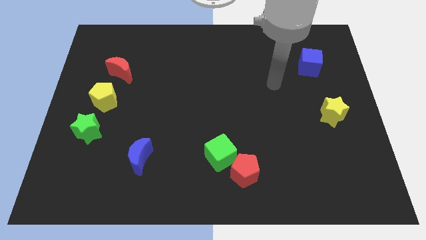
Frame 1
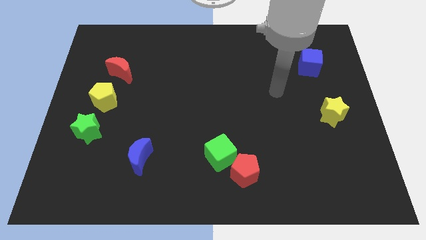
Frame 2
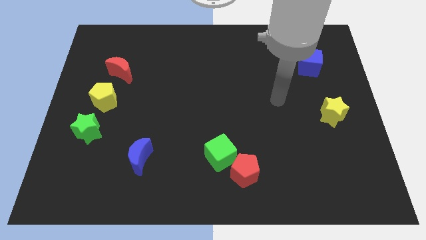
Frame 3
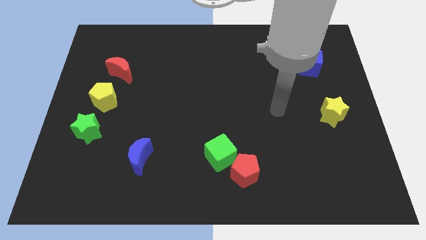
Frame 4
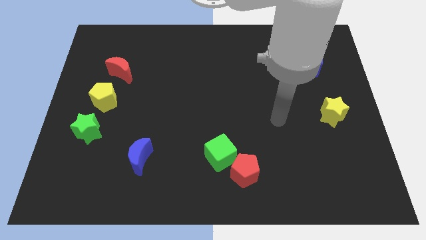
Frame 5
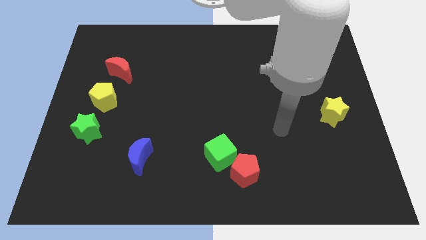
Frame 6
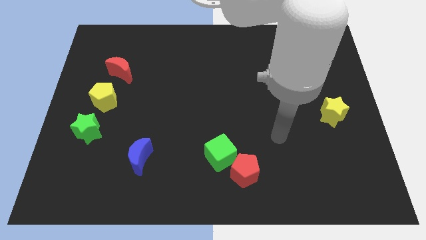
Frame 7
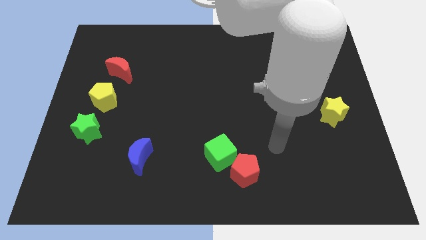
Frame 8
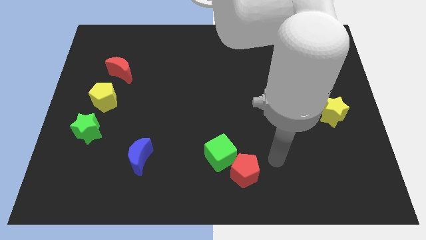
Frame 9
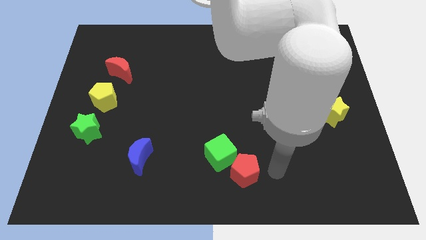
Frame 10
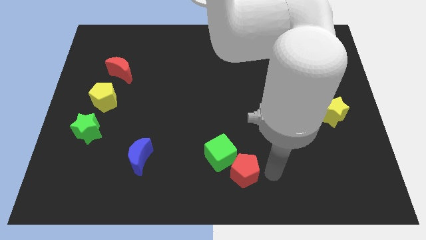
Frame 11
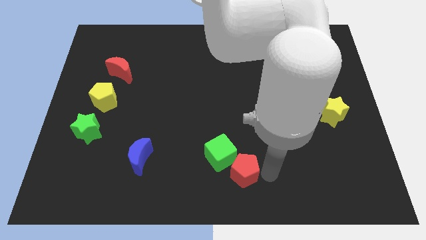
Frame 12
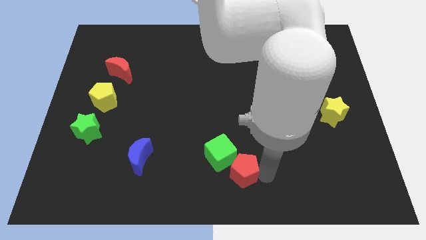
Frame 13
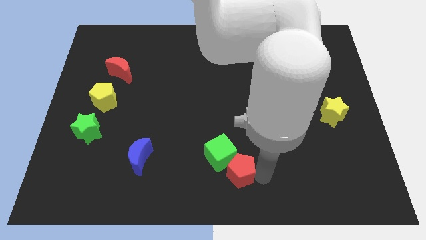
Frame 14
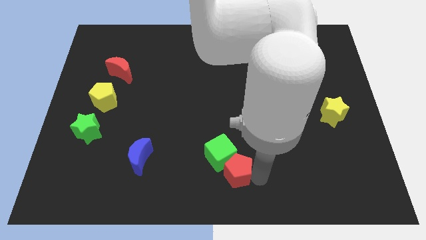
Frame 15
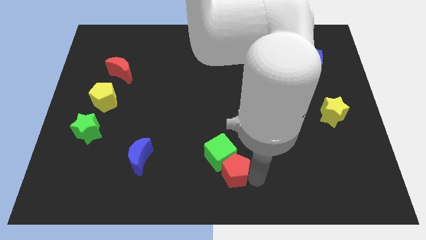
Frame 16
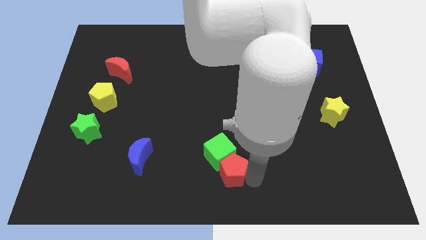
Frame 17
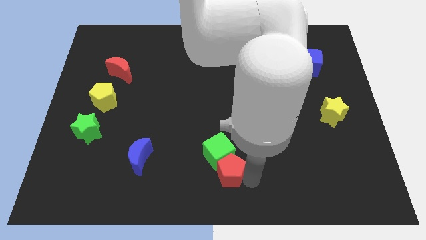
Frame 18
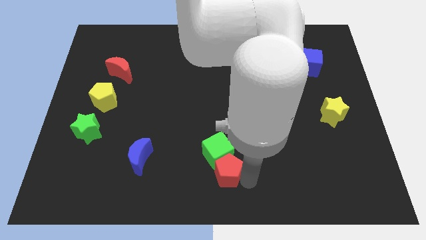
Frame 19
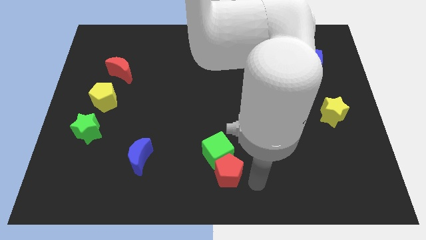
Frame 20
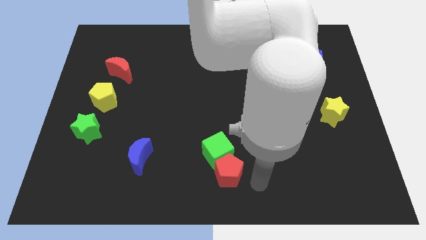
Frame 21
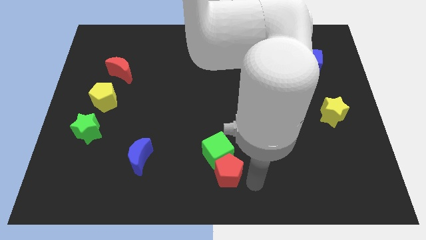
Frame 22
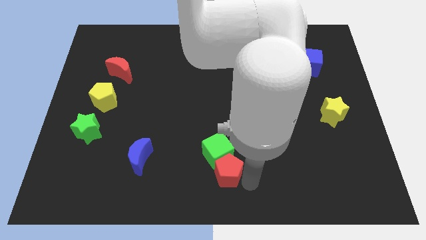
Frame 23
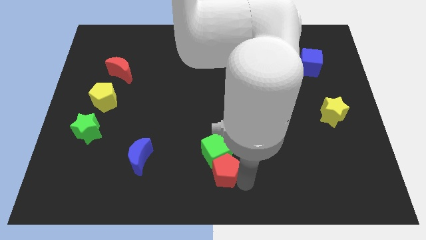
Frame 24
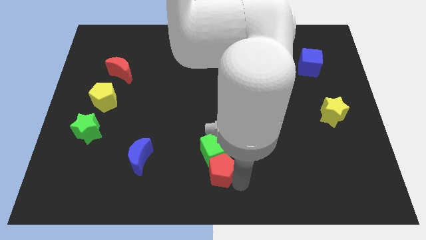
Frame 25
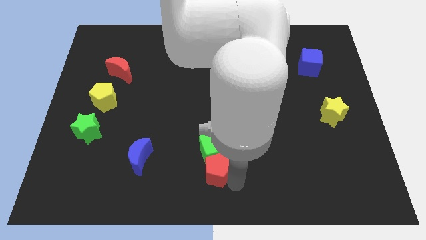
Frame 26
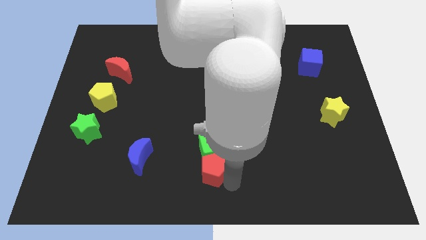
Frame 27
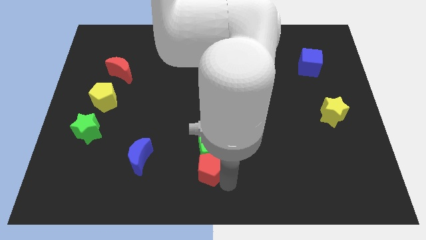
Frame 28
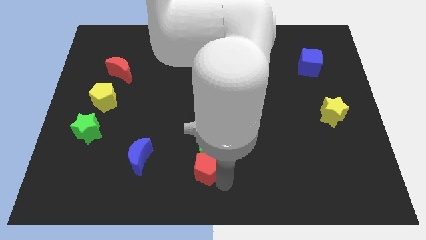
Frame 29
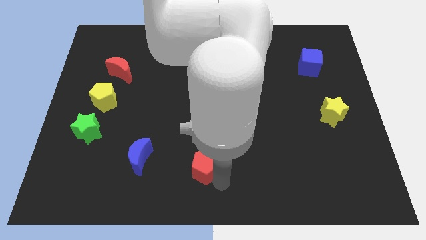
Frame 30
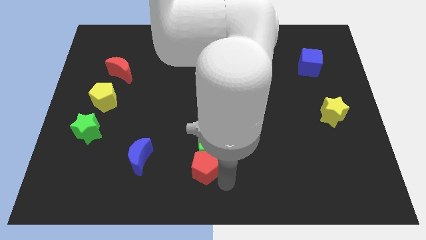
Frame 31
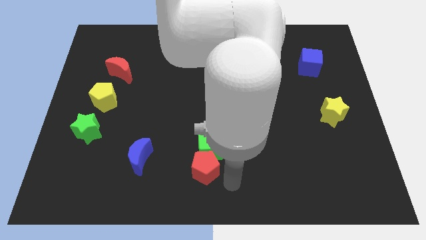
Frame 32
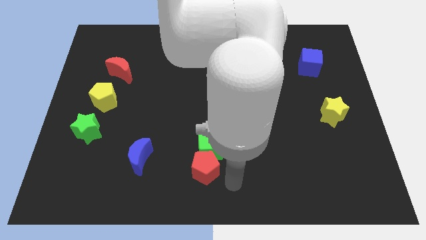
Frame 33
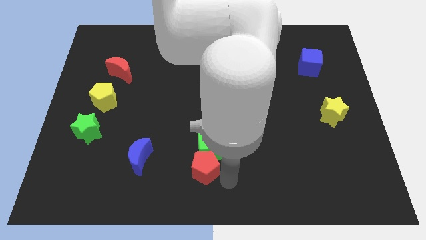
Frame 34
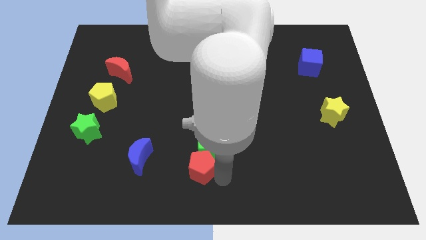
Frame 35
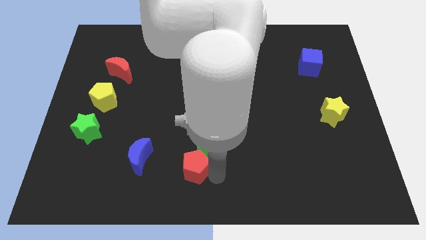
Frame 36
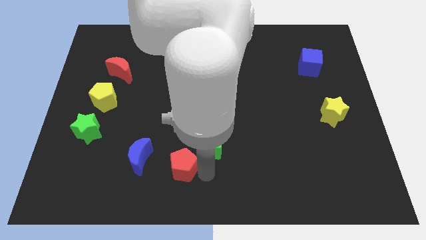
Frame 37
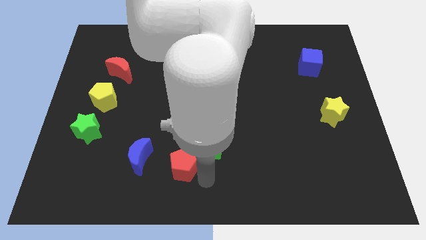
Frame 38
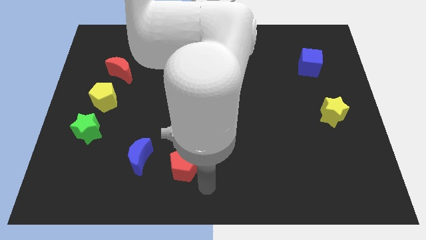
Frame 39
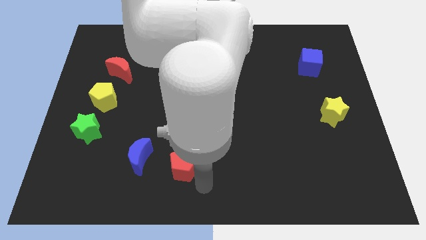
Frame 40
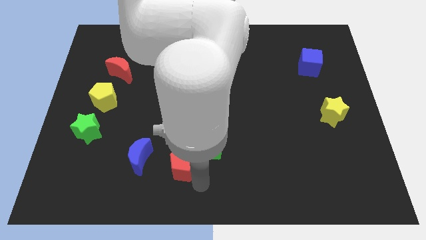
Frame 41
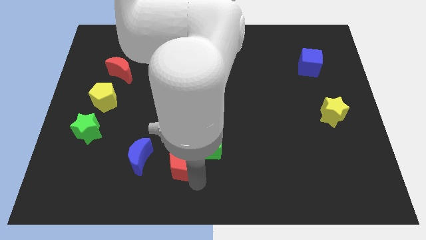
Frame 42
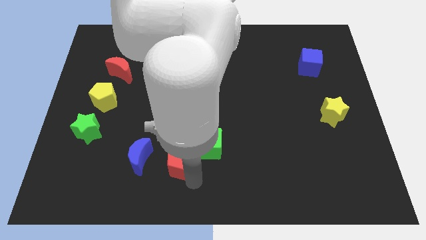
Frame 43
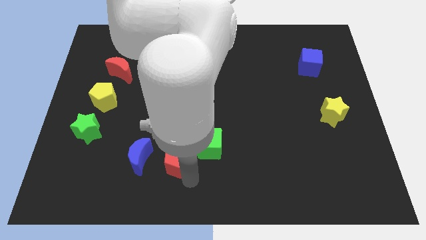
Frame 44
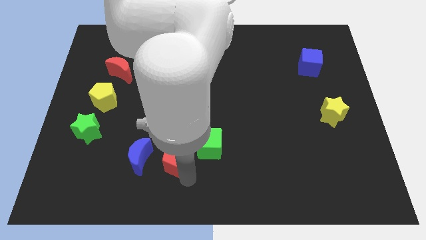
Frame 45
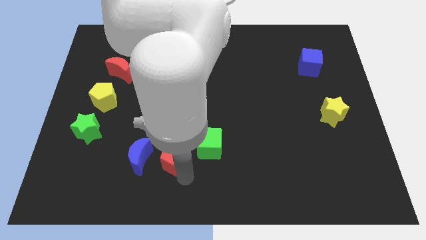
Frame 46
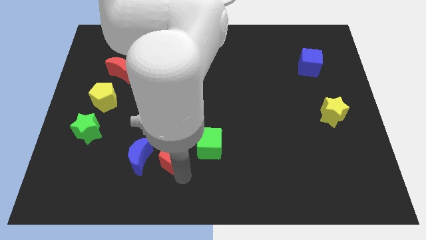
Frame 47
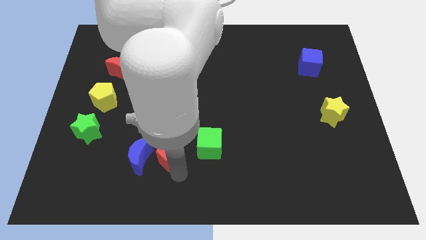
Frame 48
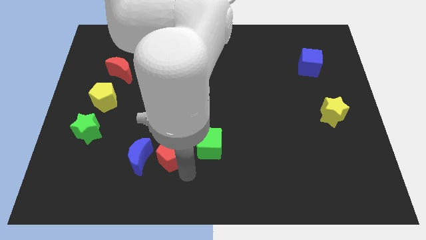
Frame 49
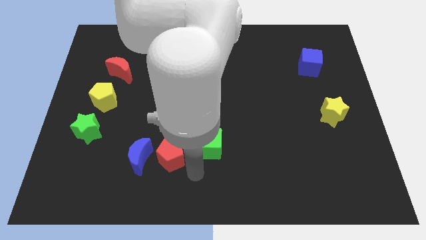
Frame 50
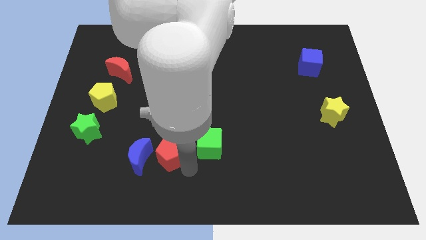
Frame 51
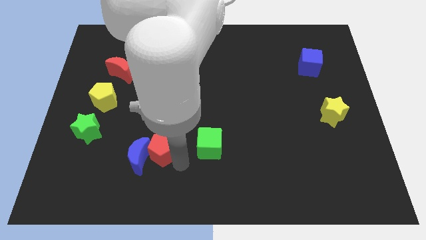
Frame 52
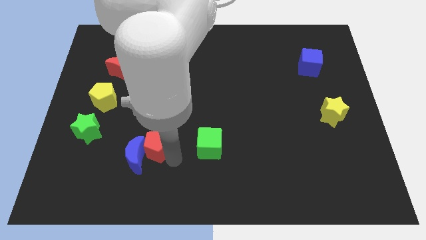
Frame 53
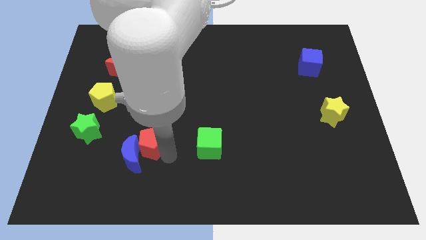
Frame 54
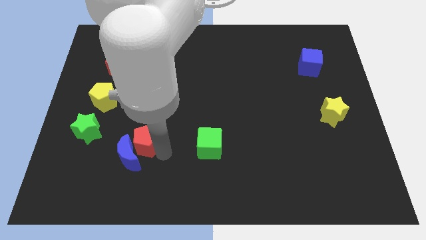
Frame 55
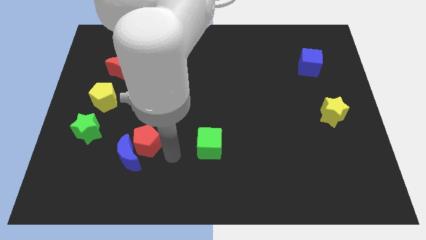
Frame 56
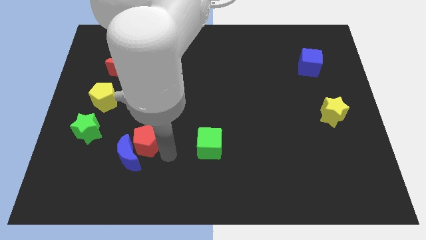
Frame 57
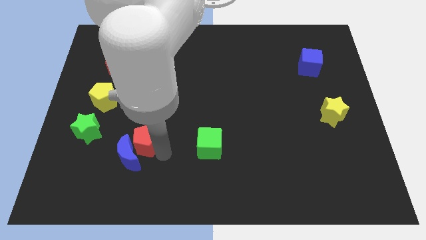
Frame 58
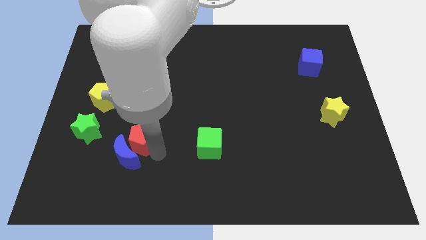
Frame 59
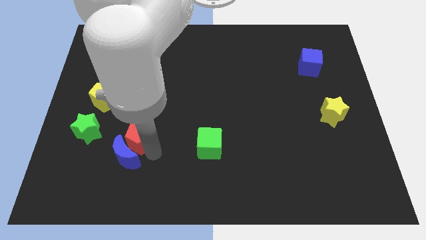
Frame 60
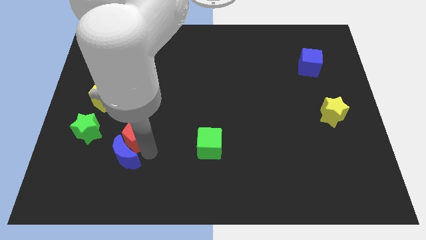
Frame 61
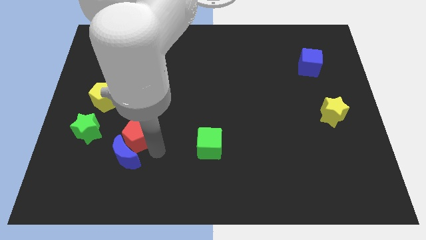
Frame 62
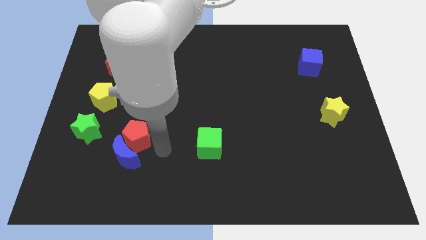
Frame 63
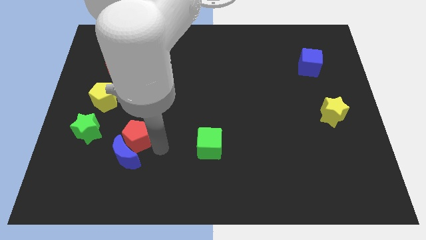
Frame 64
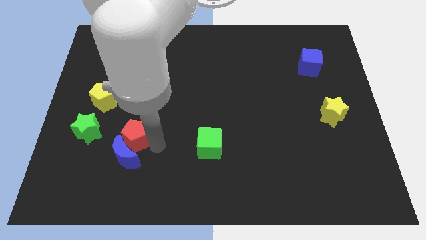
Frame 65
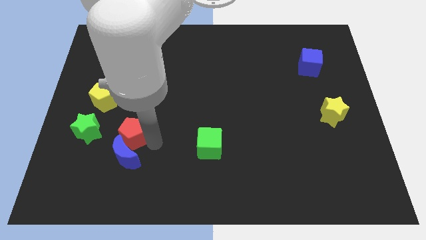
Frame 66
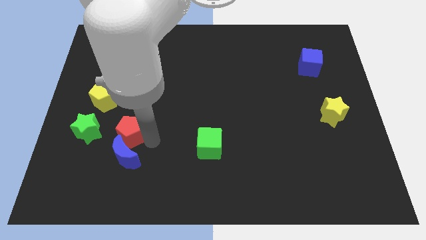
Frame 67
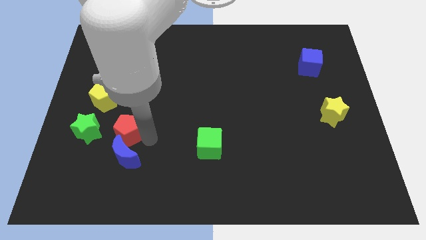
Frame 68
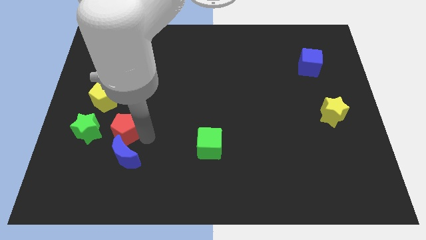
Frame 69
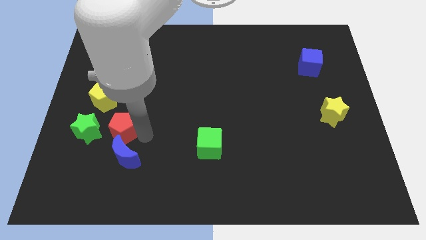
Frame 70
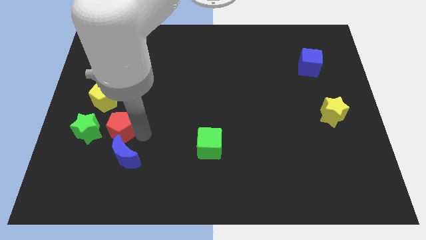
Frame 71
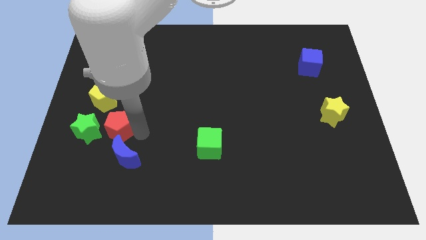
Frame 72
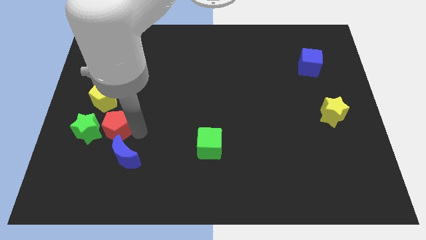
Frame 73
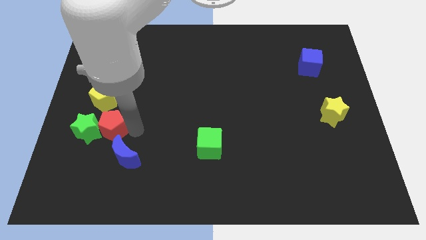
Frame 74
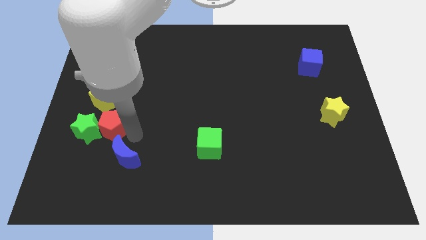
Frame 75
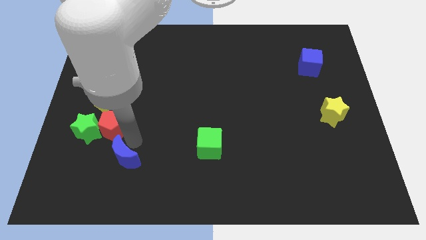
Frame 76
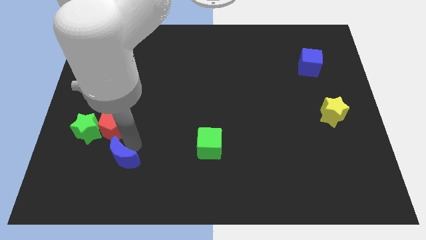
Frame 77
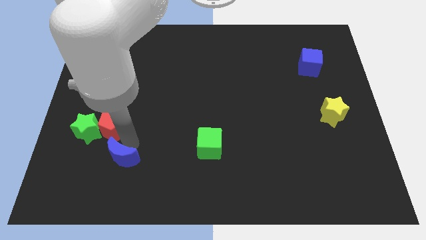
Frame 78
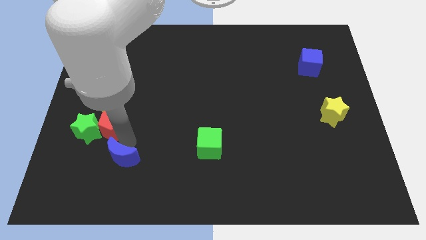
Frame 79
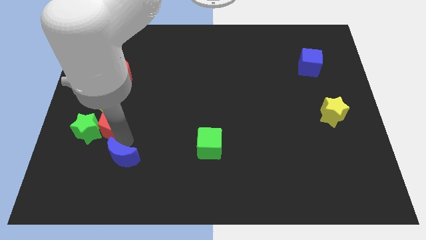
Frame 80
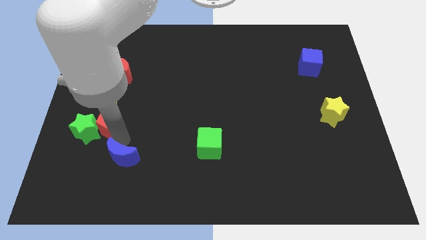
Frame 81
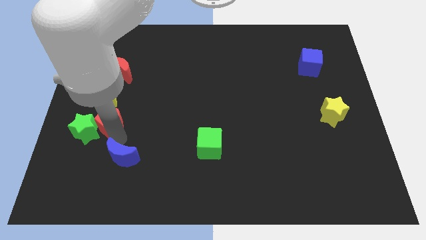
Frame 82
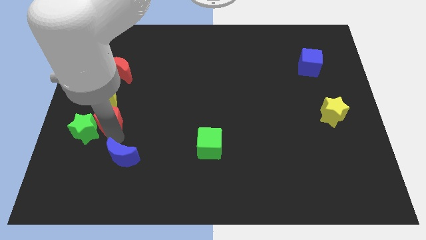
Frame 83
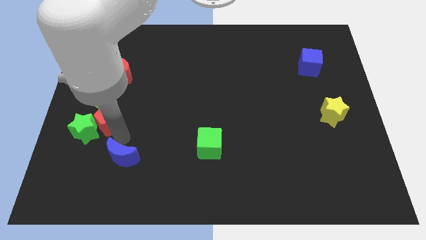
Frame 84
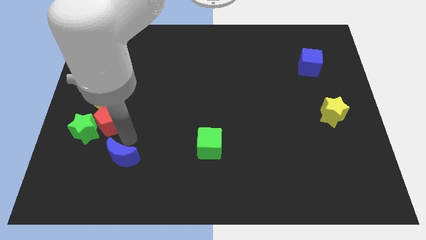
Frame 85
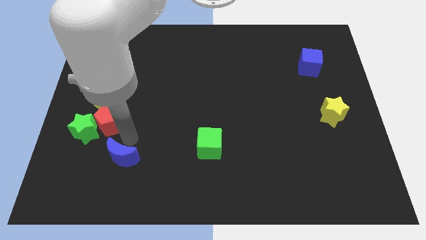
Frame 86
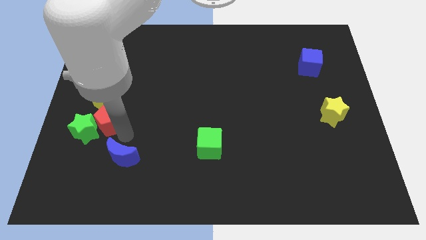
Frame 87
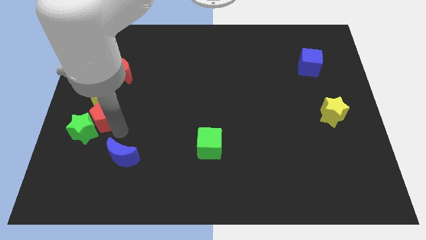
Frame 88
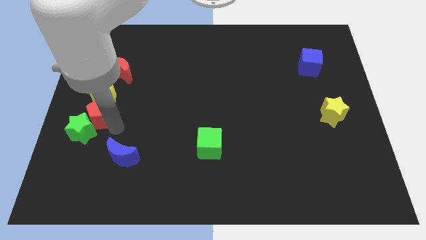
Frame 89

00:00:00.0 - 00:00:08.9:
put the red pentagon to the left side of the board
